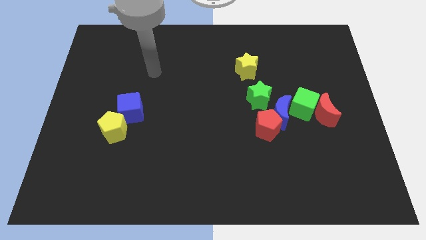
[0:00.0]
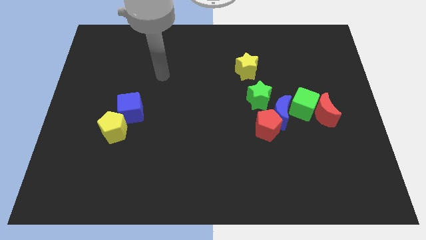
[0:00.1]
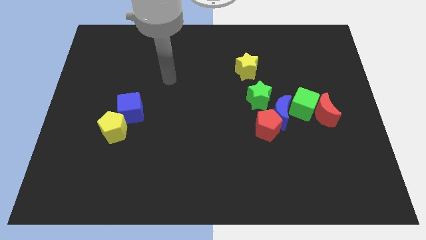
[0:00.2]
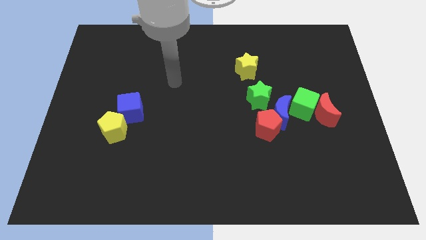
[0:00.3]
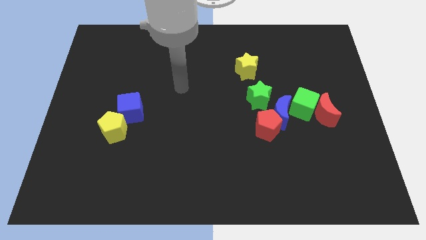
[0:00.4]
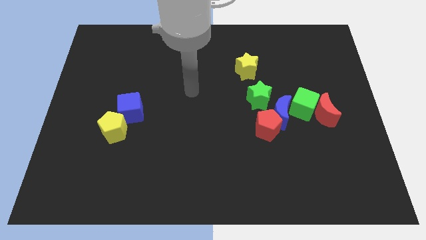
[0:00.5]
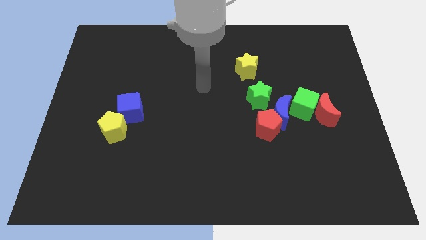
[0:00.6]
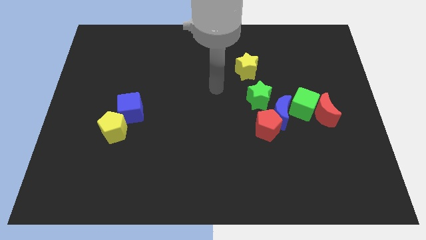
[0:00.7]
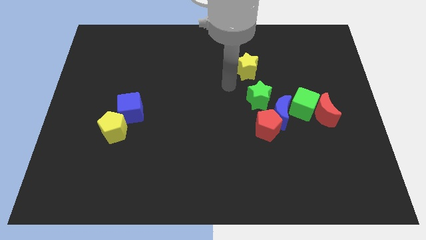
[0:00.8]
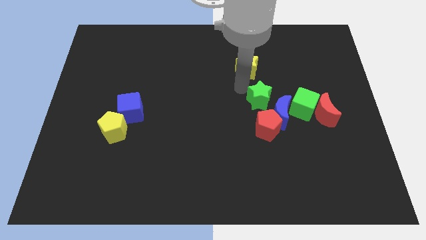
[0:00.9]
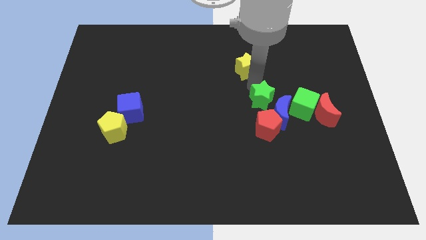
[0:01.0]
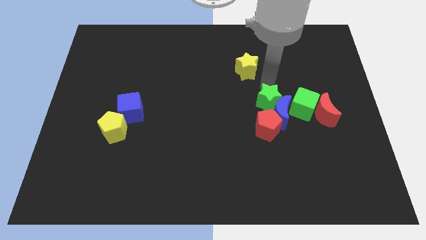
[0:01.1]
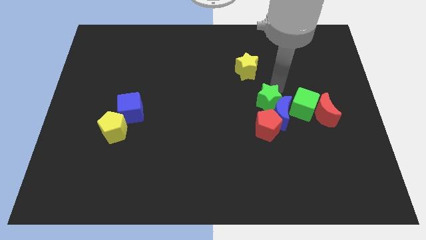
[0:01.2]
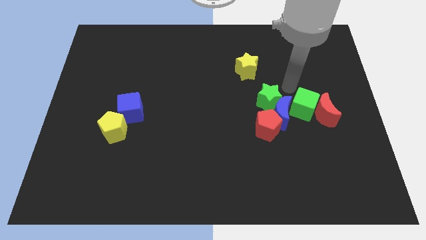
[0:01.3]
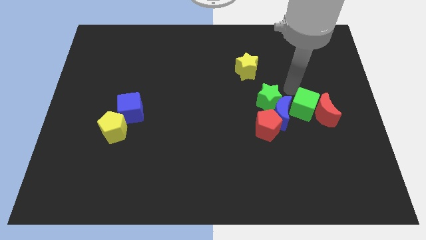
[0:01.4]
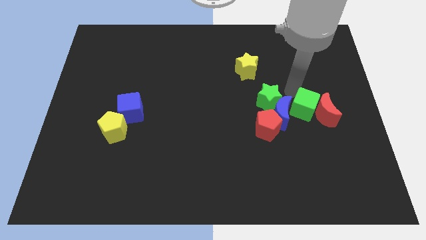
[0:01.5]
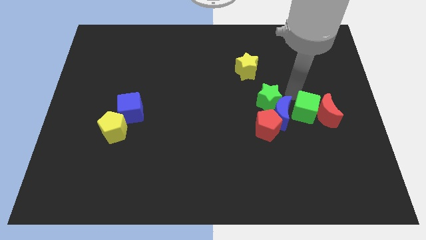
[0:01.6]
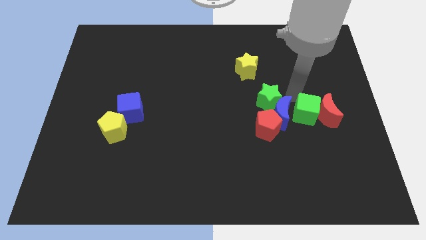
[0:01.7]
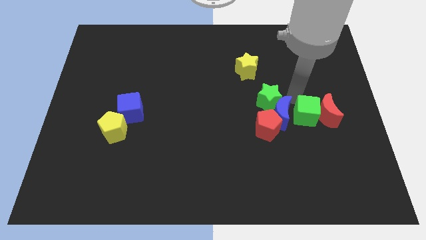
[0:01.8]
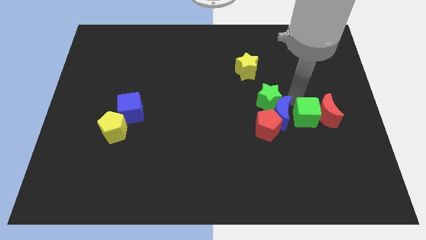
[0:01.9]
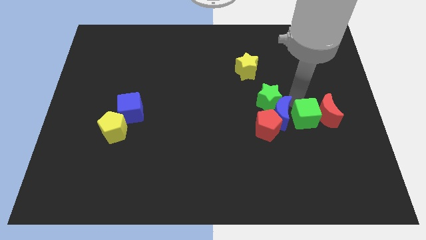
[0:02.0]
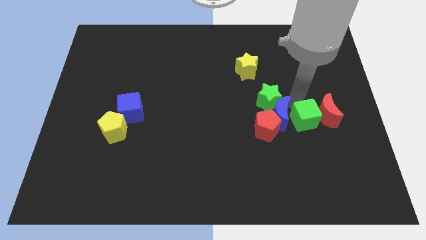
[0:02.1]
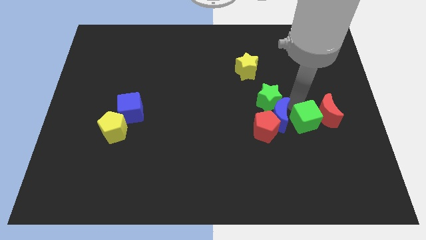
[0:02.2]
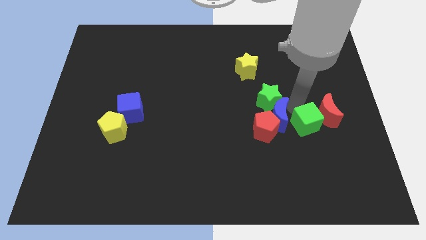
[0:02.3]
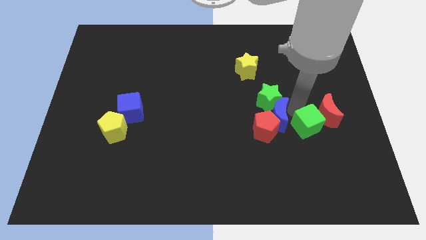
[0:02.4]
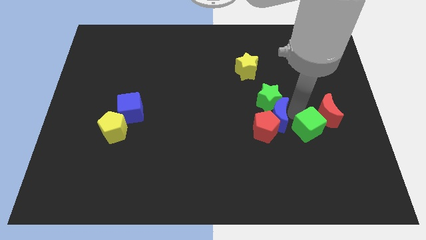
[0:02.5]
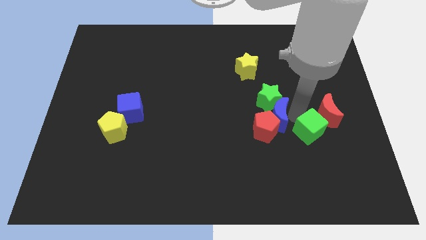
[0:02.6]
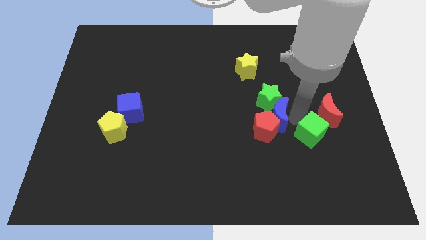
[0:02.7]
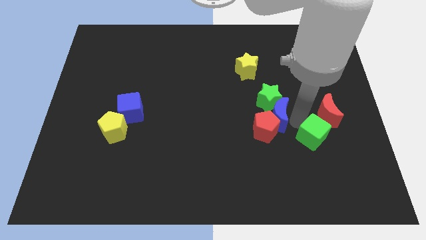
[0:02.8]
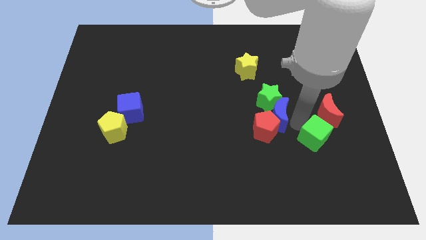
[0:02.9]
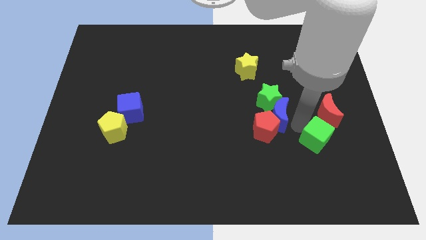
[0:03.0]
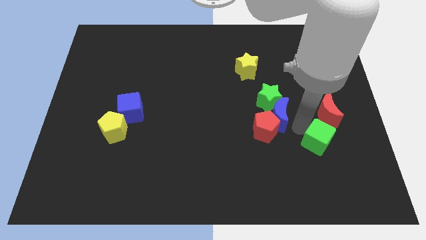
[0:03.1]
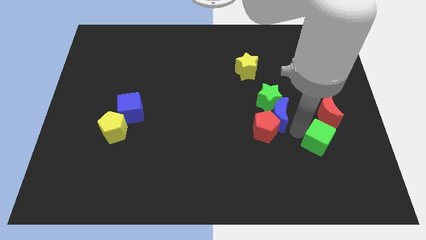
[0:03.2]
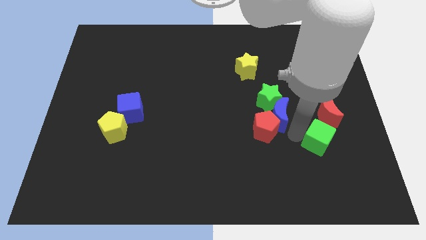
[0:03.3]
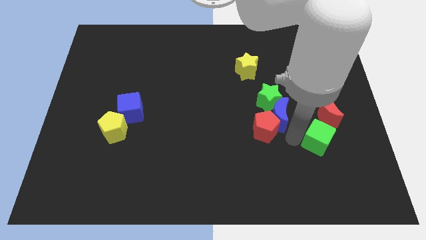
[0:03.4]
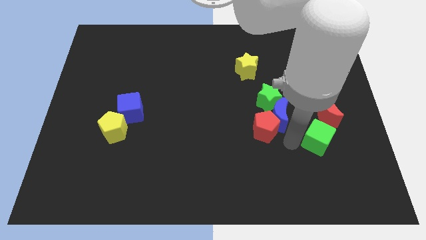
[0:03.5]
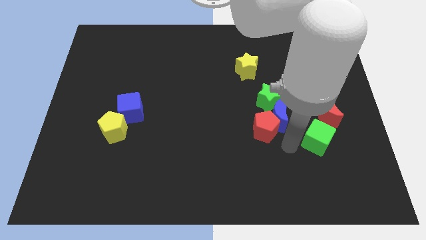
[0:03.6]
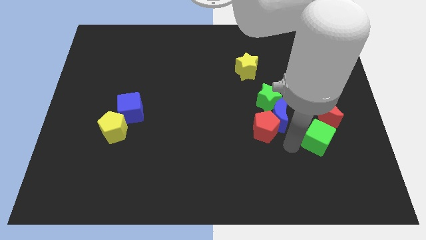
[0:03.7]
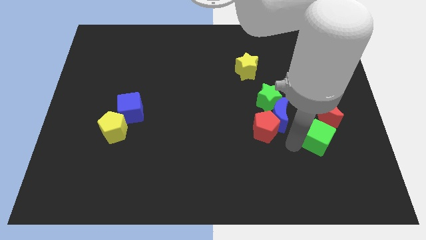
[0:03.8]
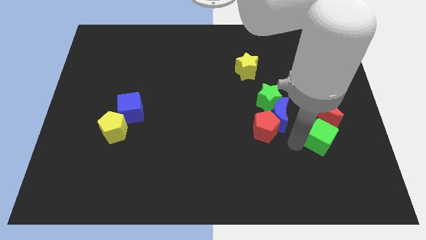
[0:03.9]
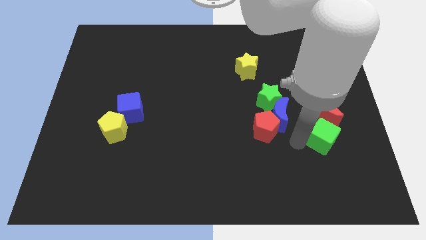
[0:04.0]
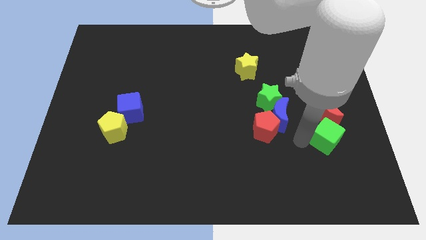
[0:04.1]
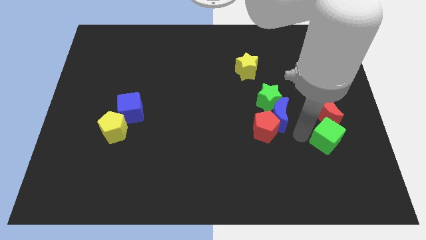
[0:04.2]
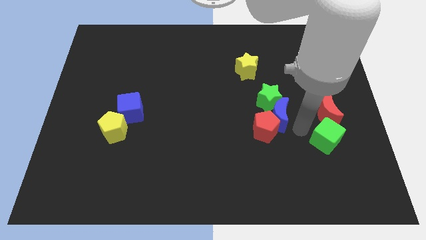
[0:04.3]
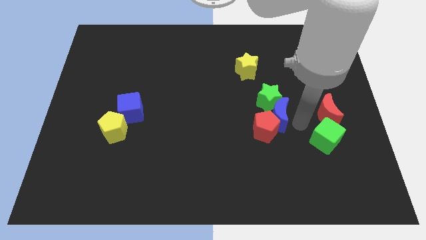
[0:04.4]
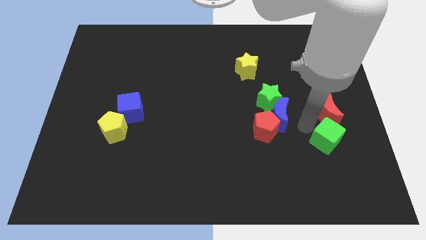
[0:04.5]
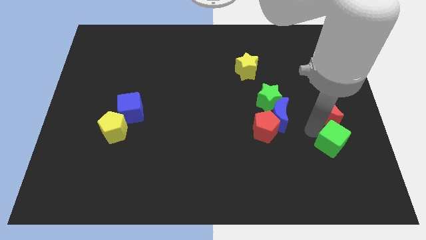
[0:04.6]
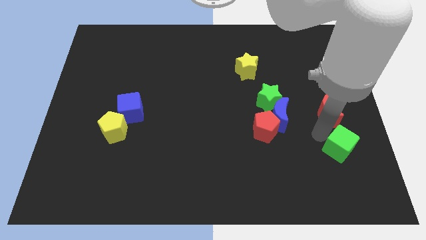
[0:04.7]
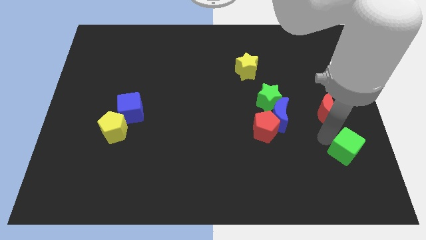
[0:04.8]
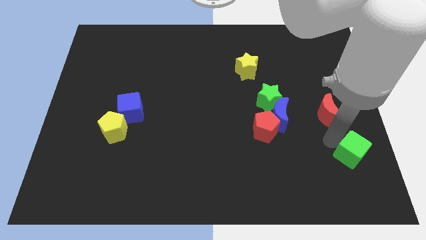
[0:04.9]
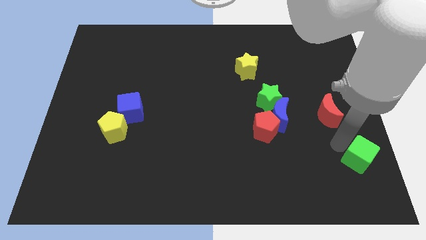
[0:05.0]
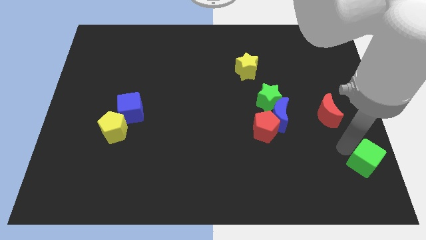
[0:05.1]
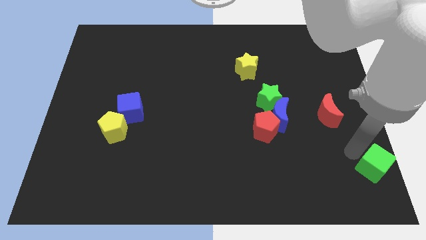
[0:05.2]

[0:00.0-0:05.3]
put the green cube to the bottom right corner

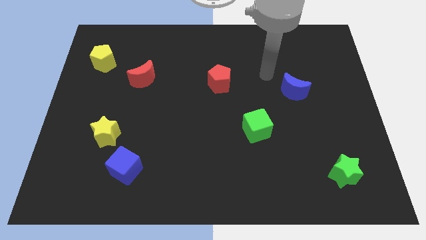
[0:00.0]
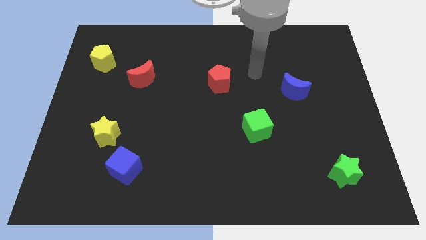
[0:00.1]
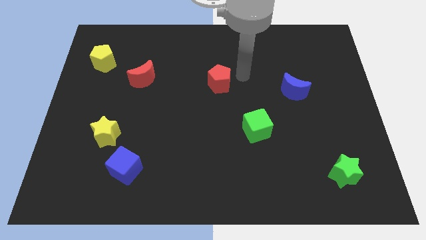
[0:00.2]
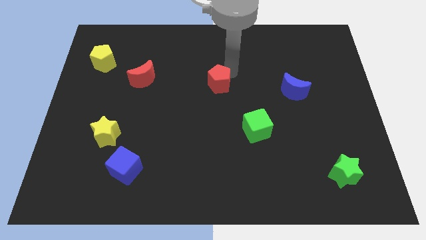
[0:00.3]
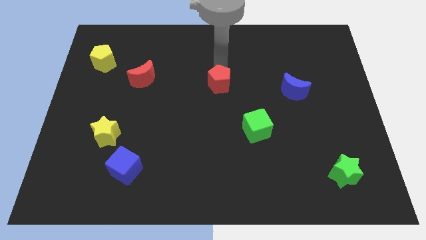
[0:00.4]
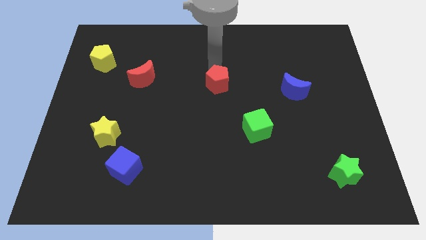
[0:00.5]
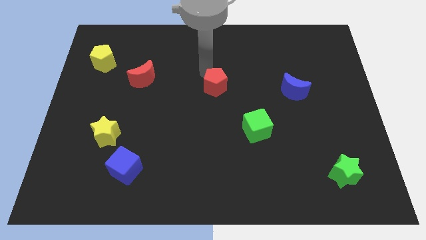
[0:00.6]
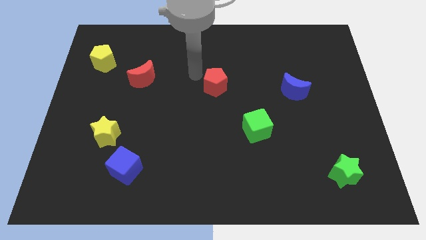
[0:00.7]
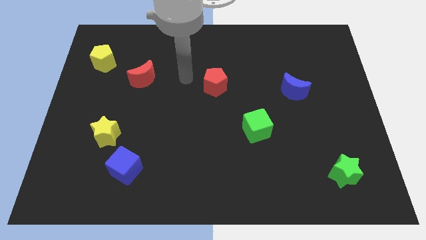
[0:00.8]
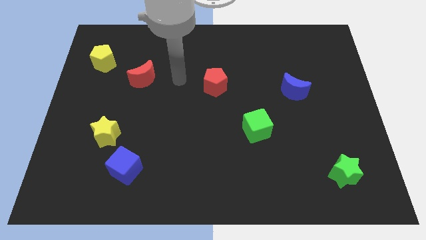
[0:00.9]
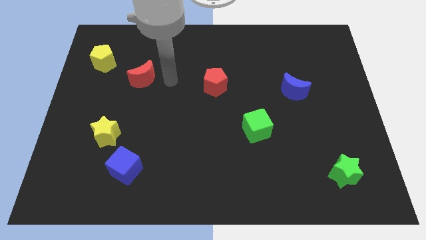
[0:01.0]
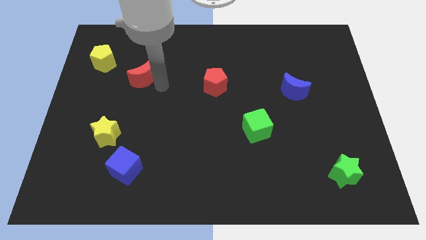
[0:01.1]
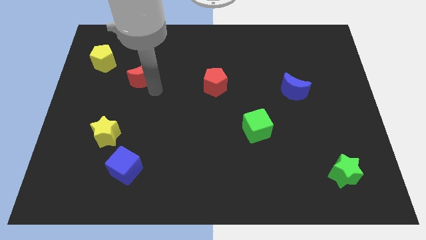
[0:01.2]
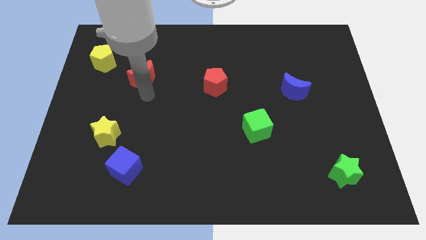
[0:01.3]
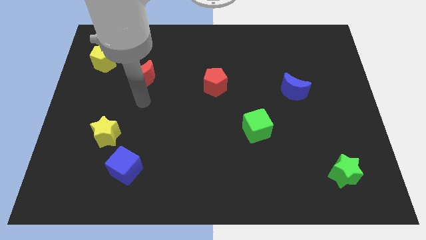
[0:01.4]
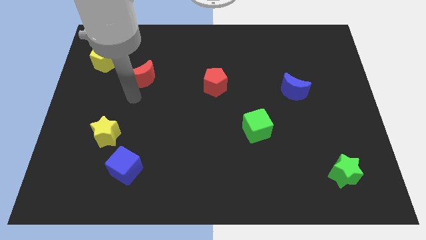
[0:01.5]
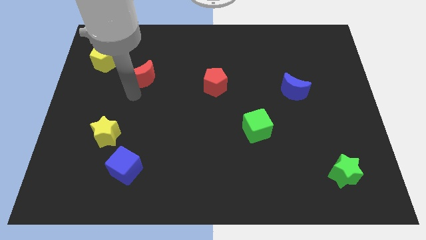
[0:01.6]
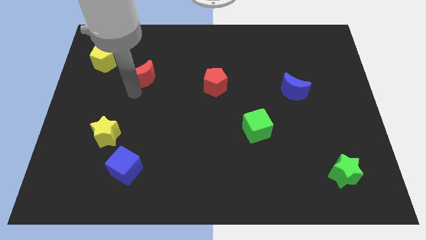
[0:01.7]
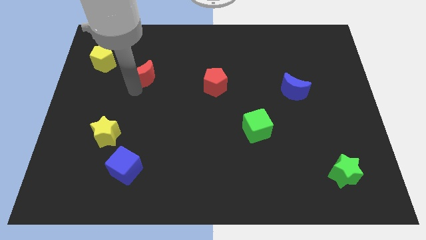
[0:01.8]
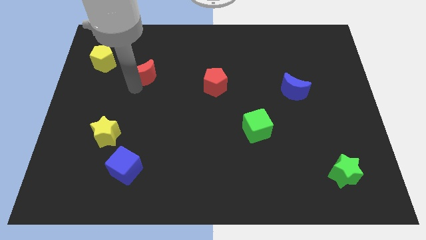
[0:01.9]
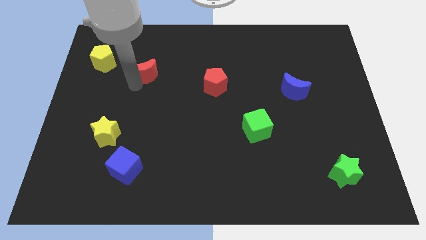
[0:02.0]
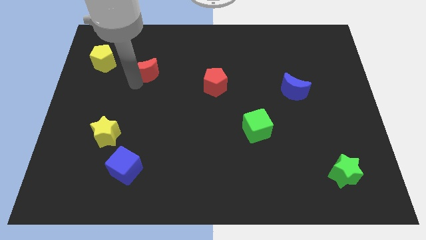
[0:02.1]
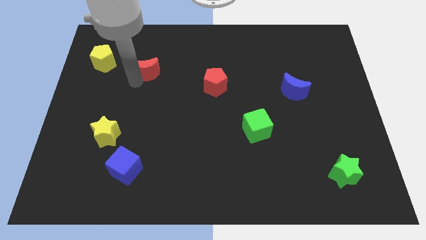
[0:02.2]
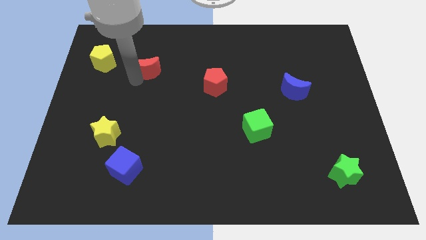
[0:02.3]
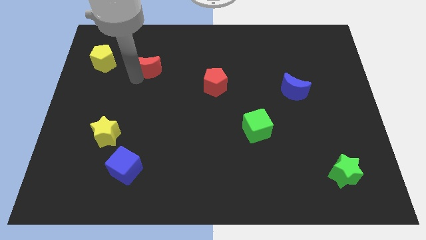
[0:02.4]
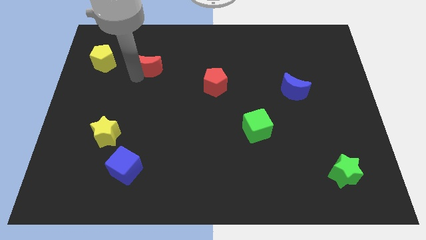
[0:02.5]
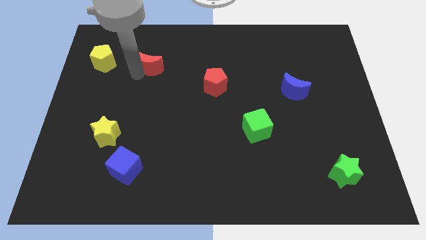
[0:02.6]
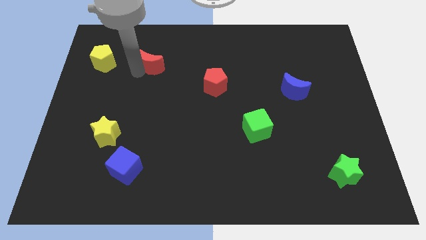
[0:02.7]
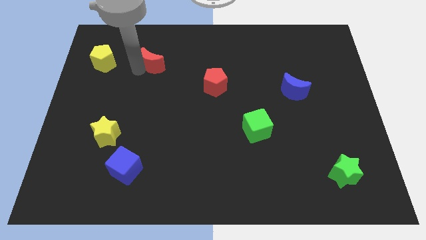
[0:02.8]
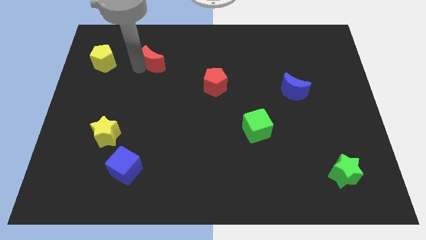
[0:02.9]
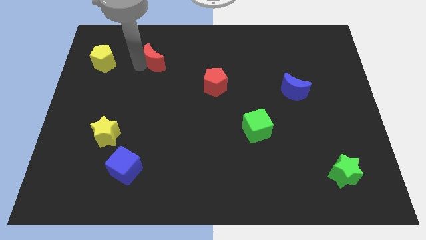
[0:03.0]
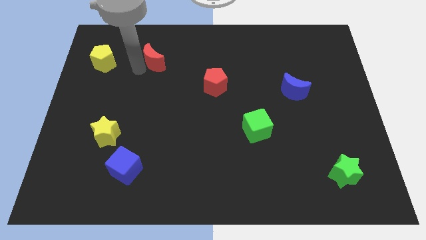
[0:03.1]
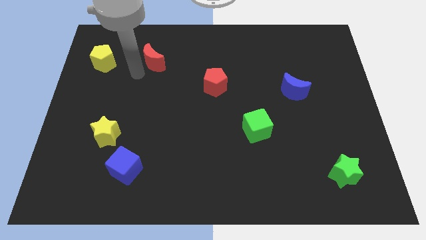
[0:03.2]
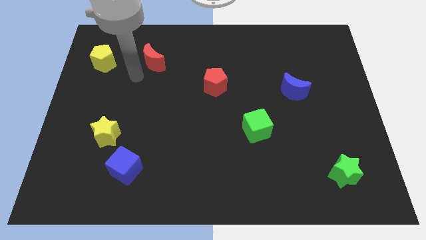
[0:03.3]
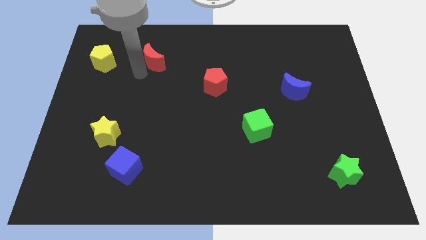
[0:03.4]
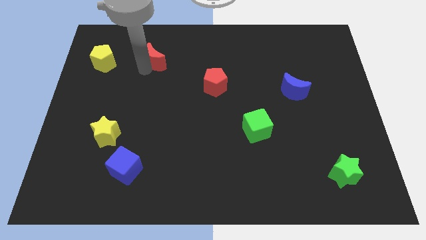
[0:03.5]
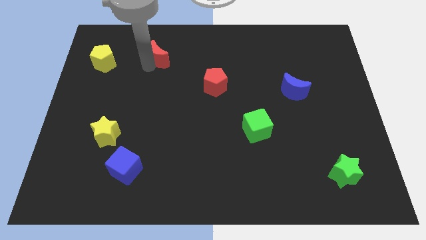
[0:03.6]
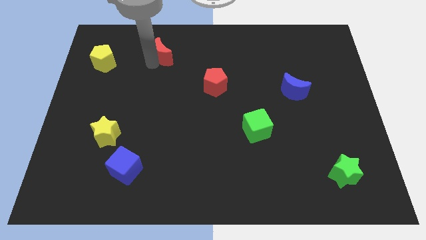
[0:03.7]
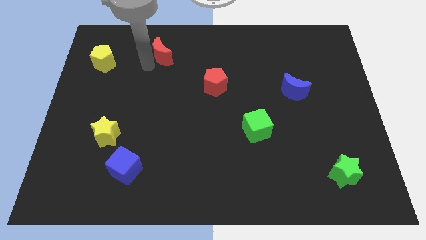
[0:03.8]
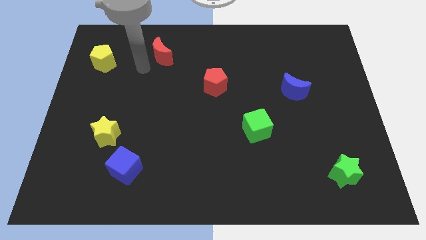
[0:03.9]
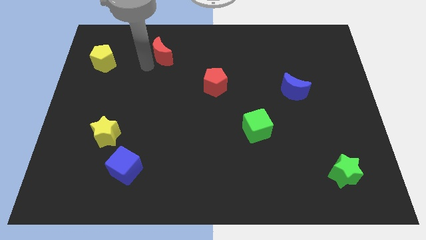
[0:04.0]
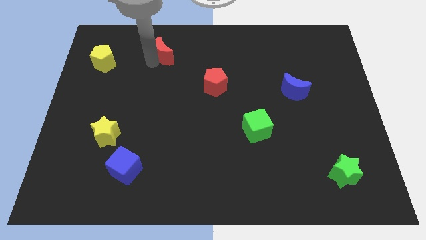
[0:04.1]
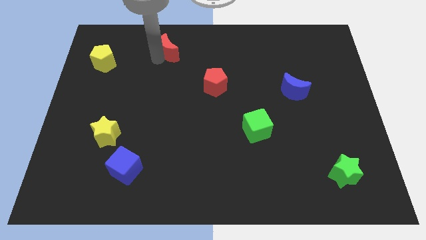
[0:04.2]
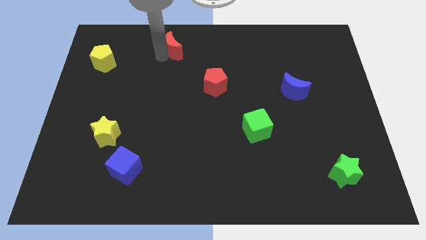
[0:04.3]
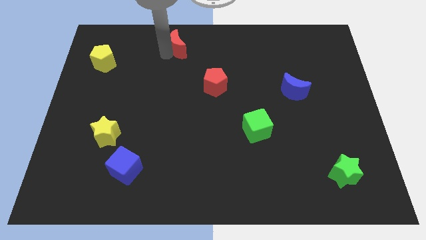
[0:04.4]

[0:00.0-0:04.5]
push the red moon to the top
